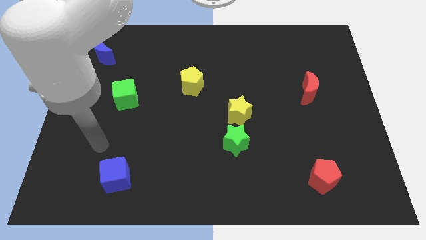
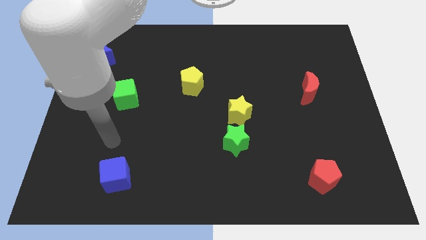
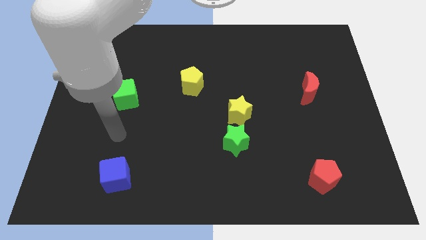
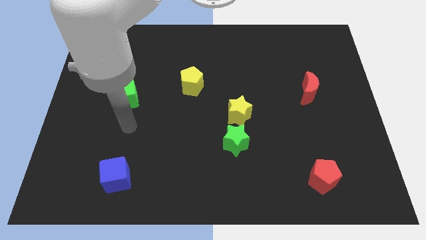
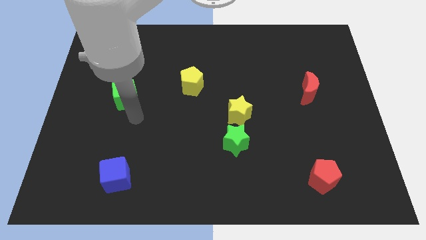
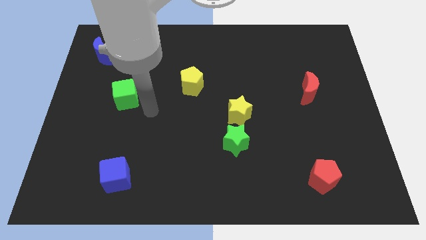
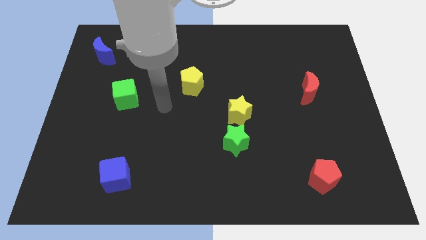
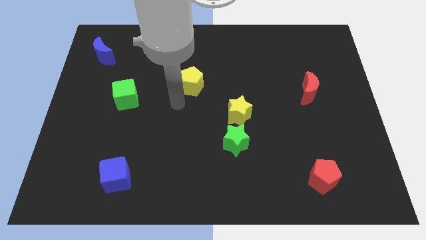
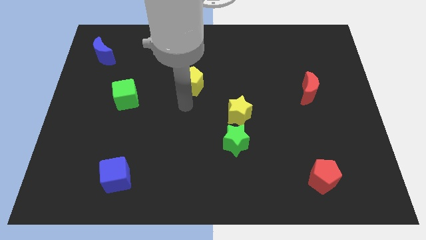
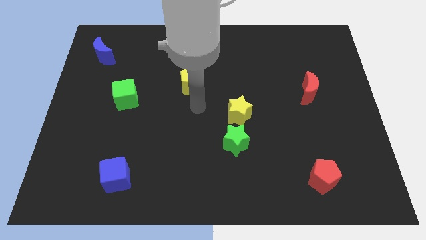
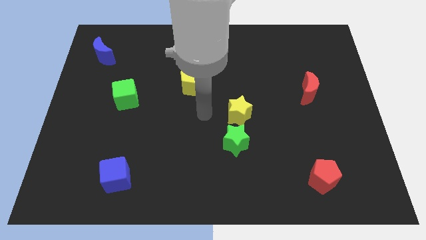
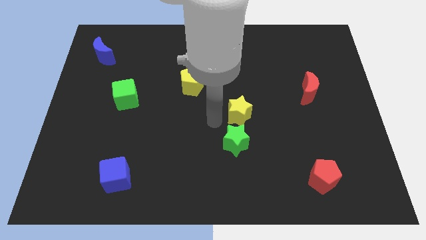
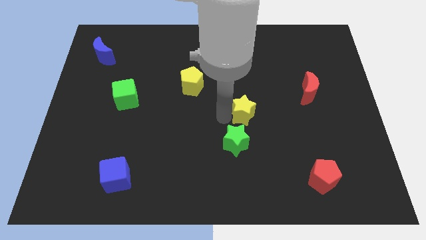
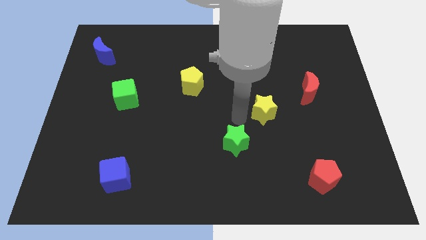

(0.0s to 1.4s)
move the green star away from the yellow star

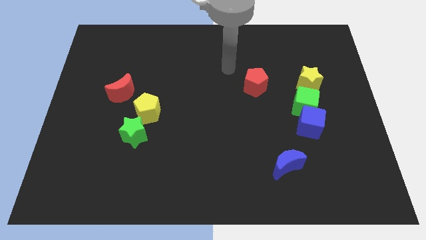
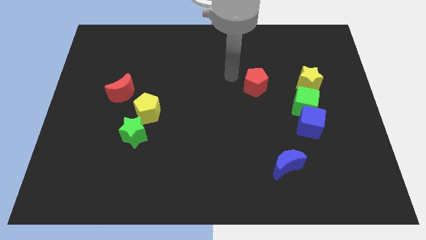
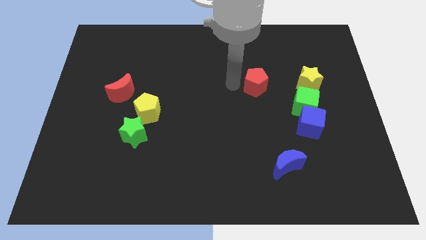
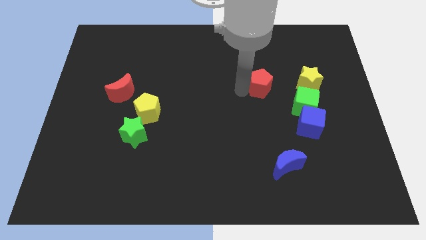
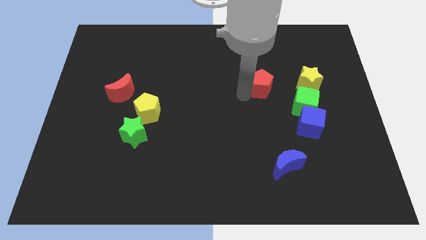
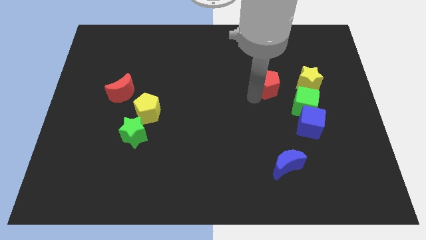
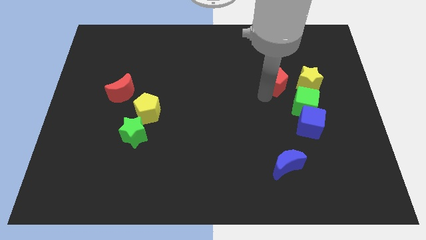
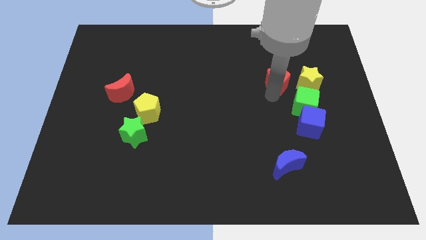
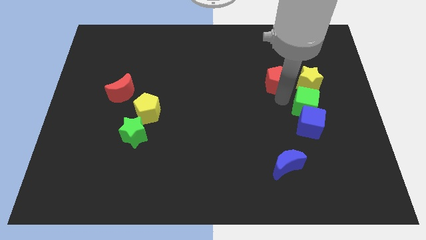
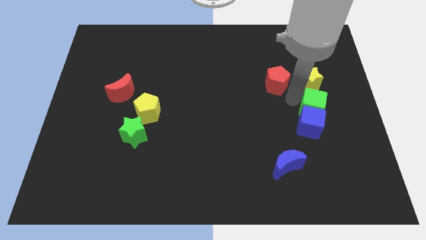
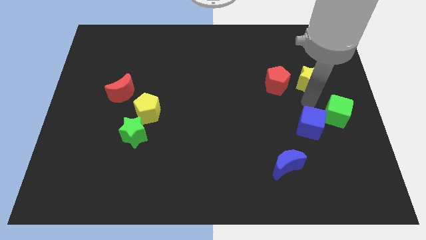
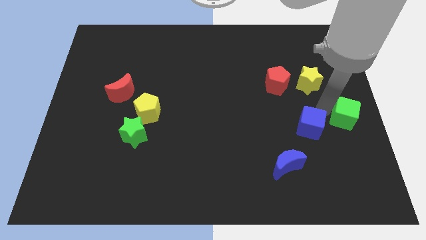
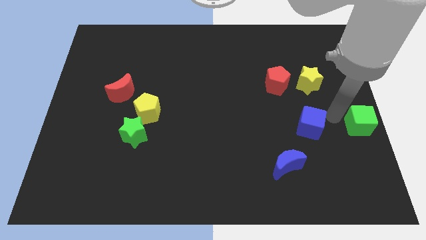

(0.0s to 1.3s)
move the blue cube away from the green cube

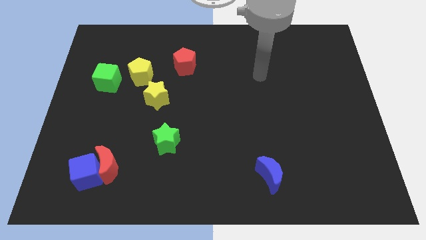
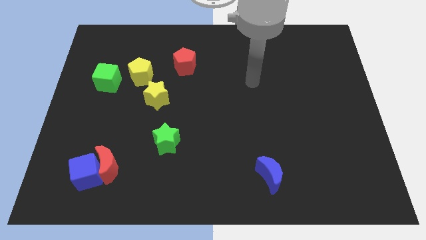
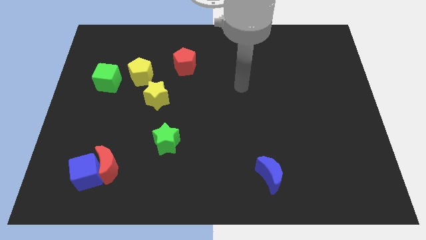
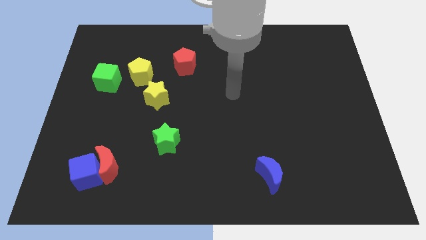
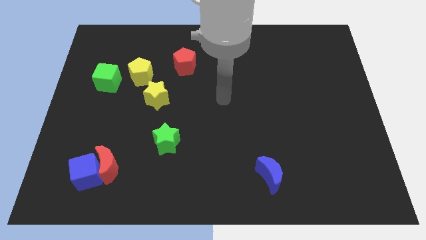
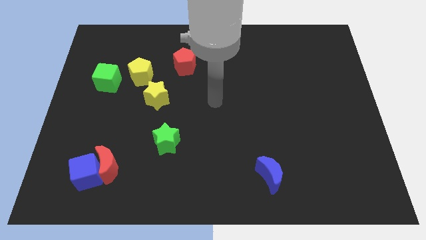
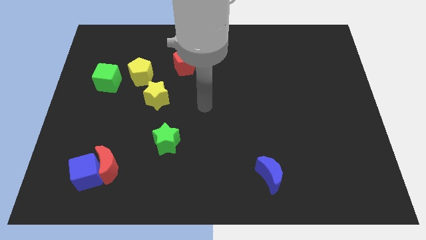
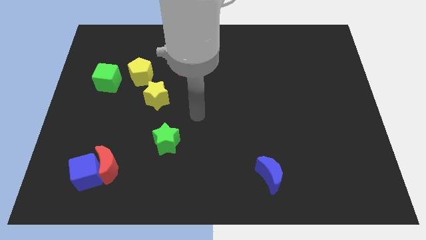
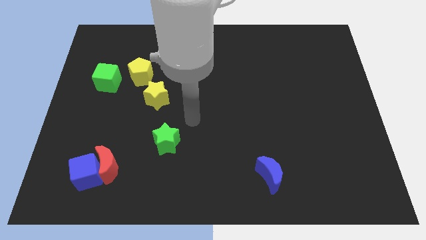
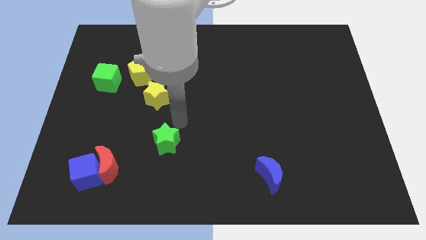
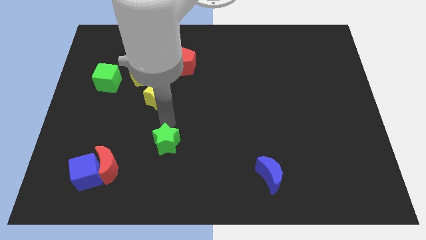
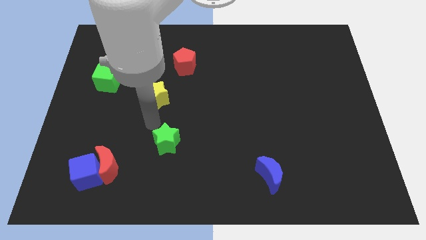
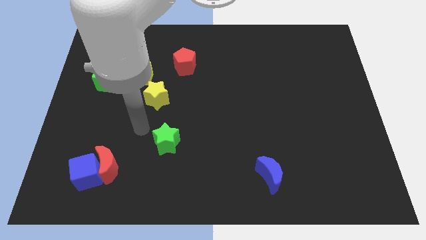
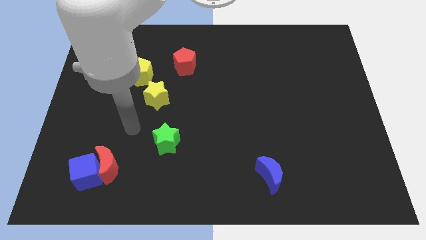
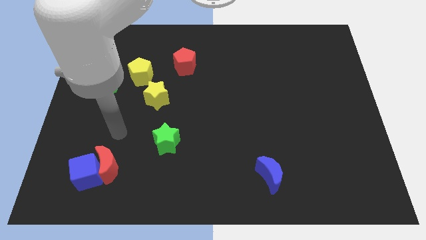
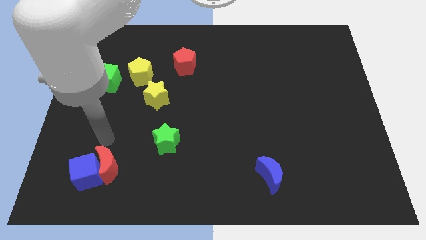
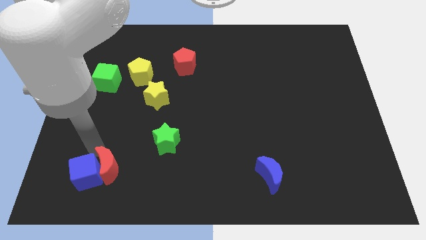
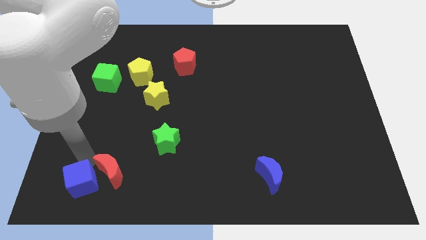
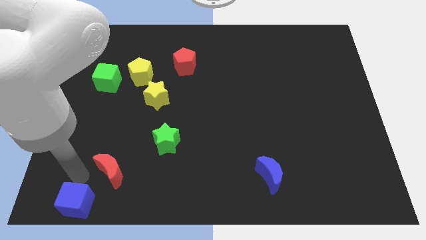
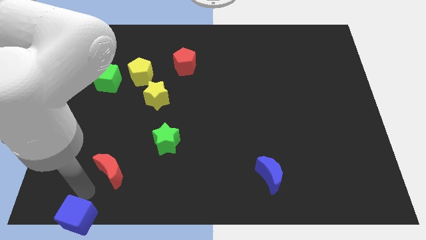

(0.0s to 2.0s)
separate the red moon from the blue cube

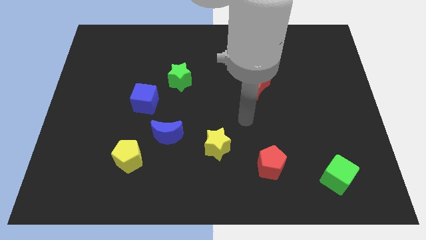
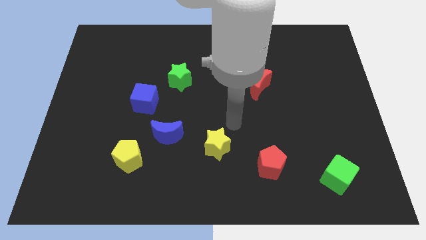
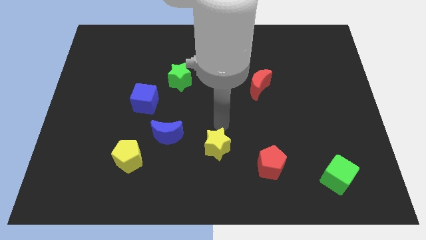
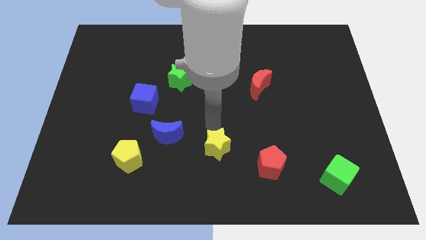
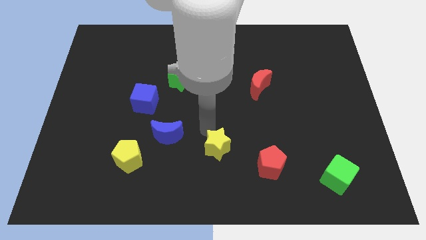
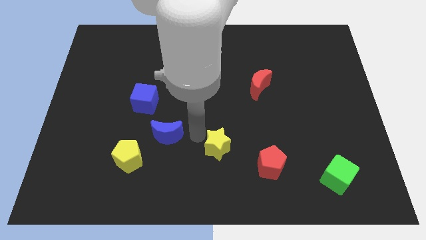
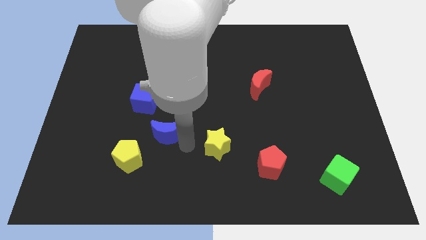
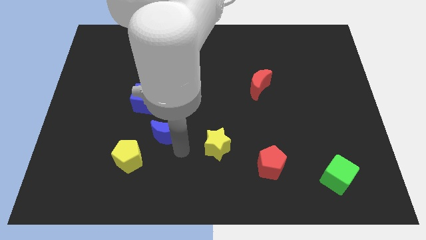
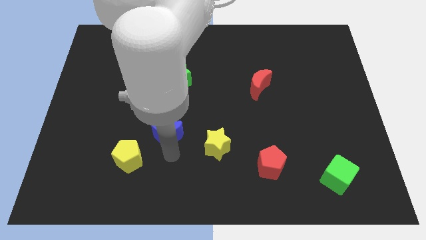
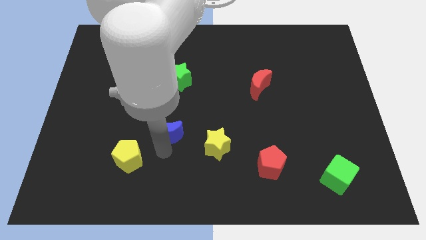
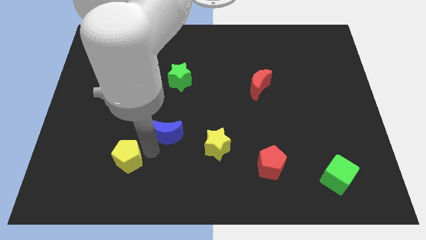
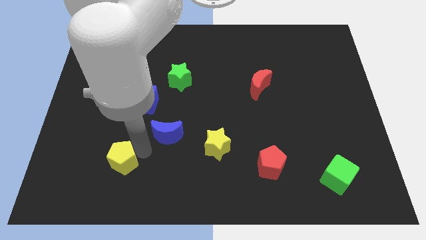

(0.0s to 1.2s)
separate the blue moon from the yellow pentagon

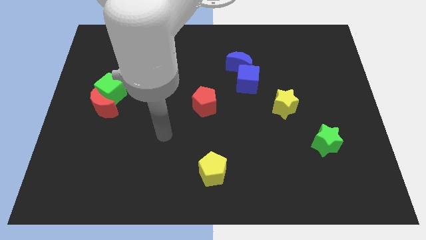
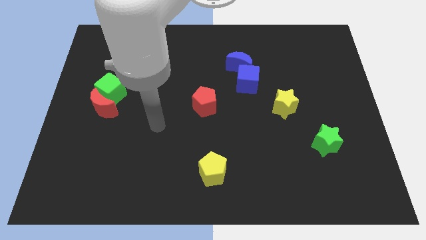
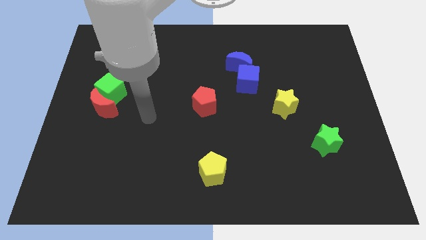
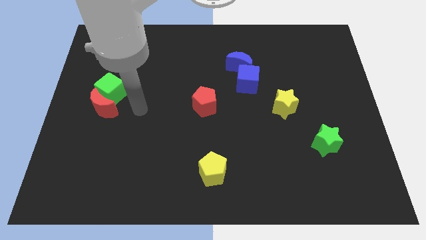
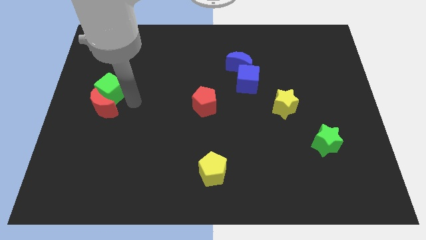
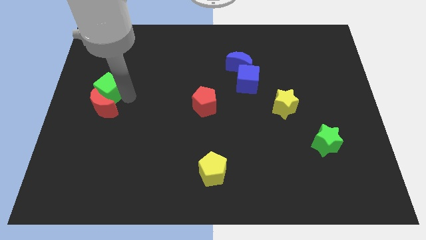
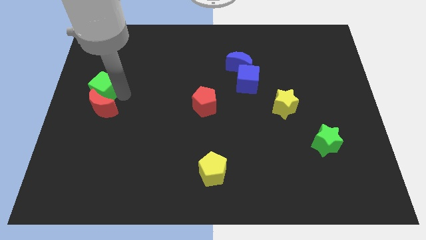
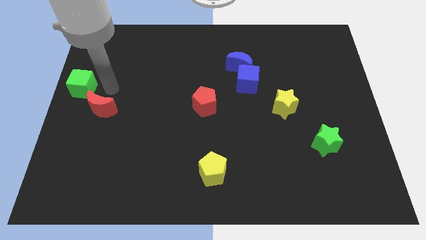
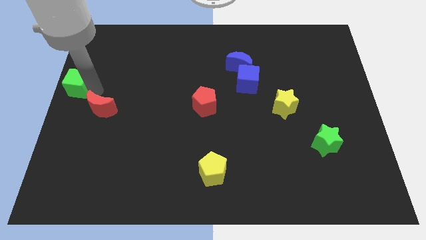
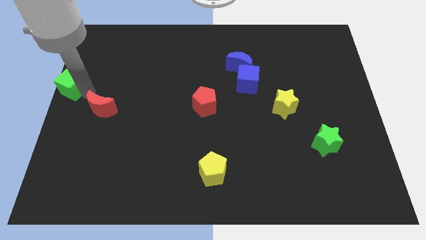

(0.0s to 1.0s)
move the red moon away from the green cube

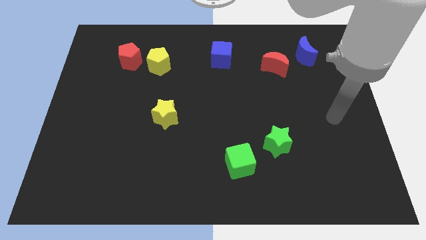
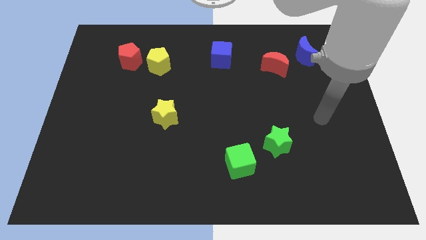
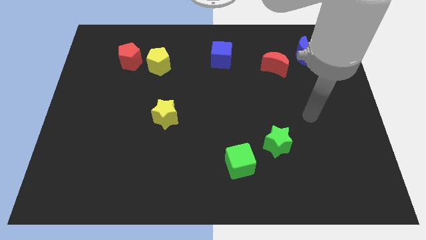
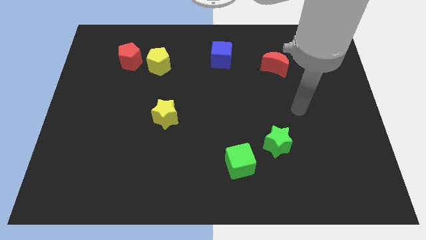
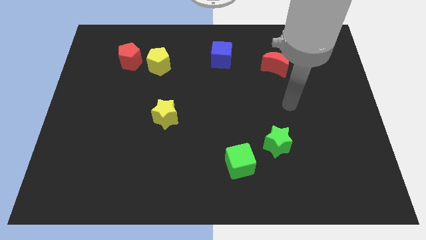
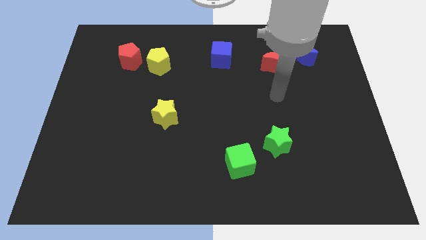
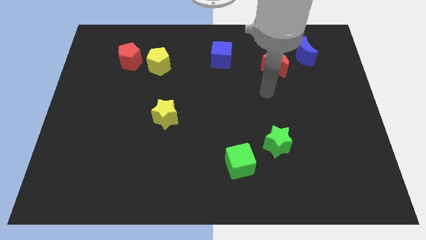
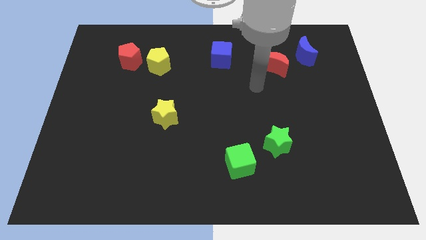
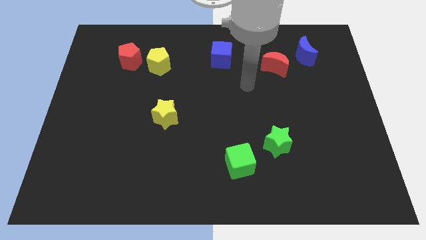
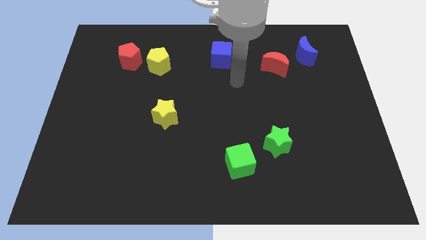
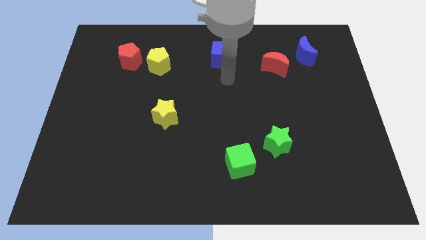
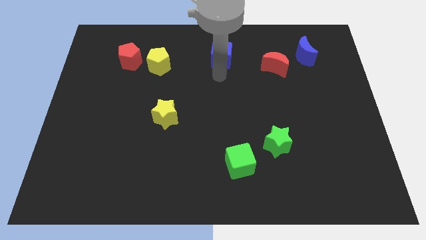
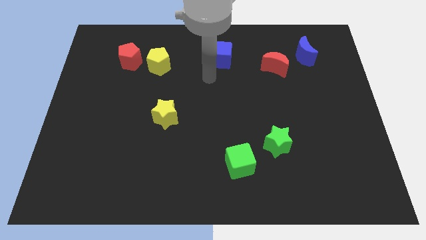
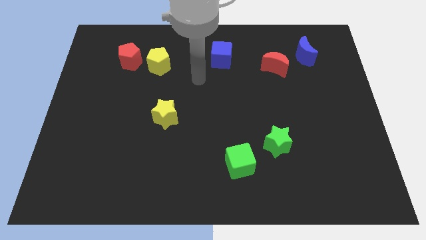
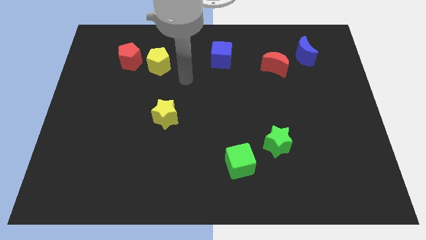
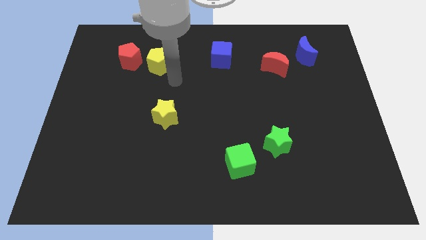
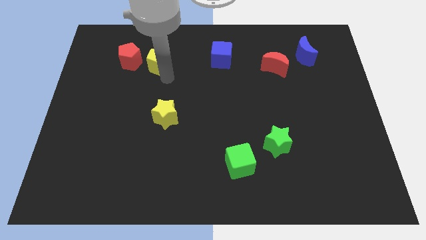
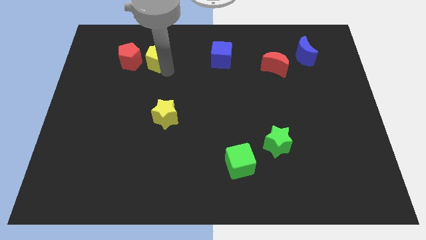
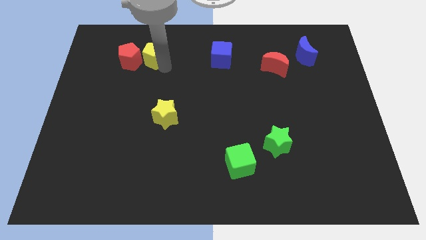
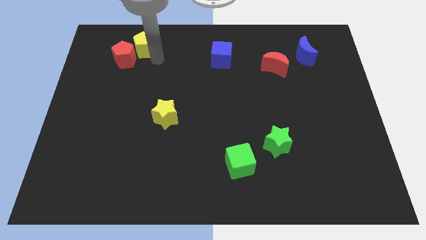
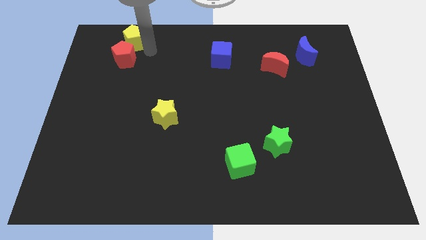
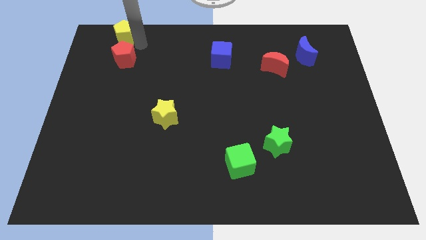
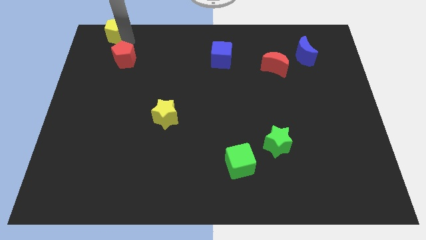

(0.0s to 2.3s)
separate the red pentagon from the yellow pentagon
